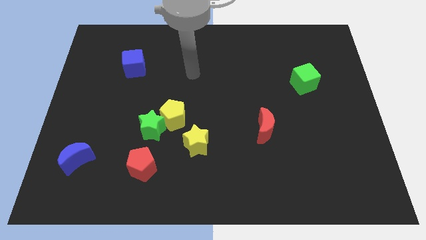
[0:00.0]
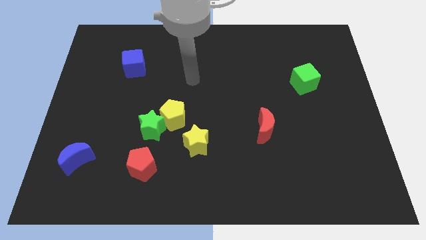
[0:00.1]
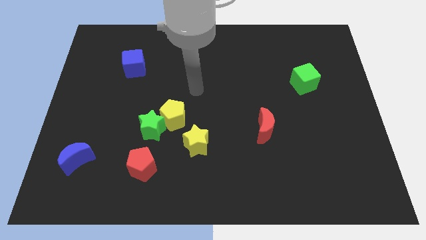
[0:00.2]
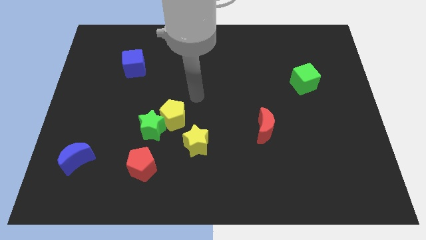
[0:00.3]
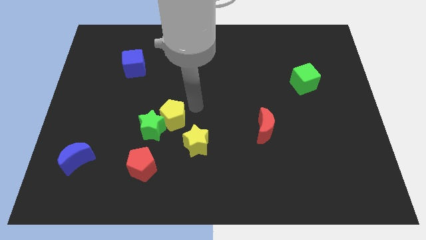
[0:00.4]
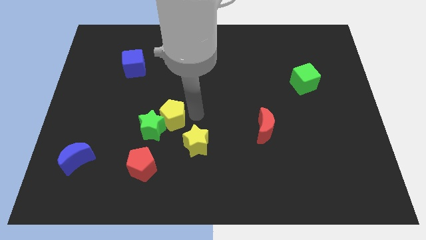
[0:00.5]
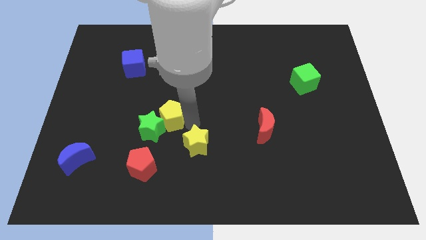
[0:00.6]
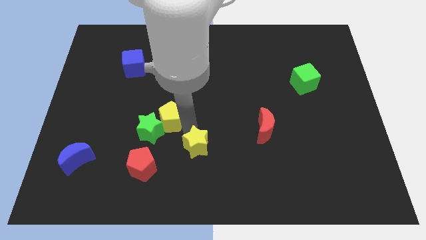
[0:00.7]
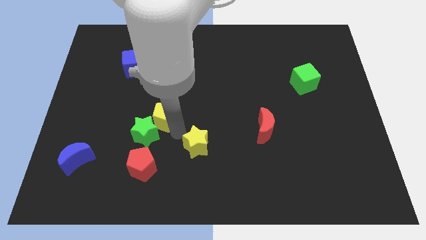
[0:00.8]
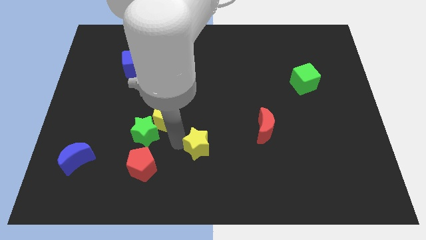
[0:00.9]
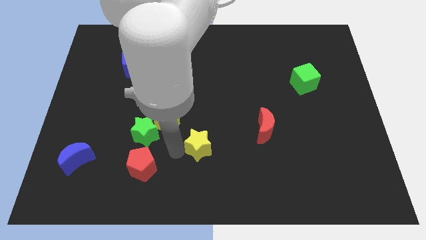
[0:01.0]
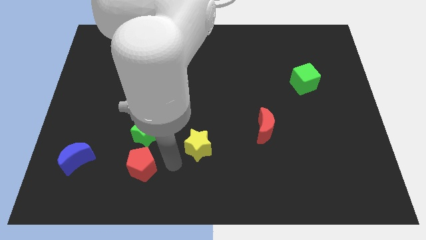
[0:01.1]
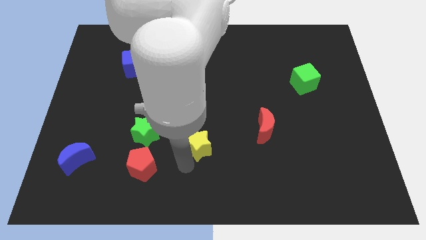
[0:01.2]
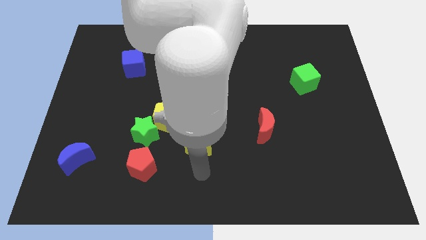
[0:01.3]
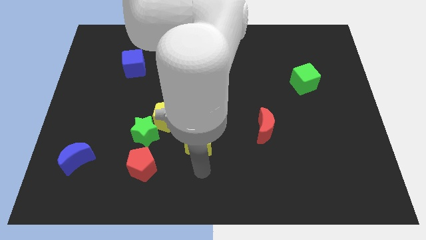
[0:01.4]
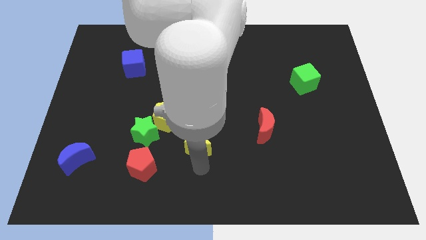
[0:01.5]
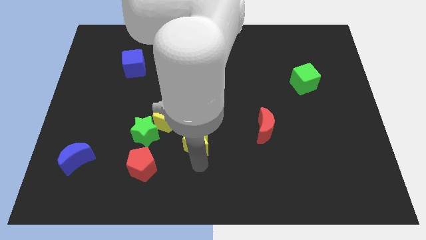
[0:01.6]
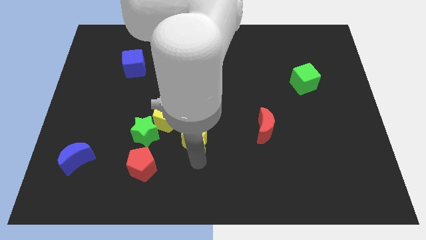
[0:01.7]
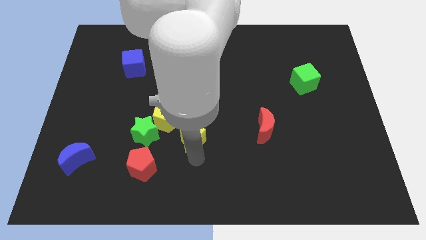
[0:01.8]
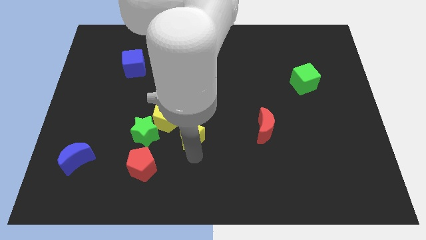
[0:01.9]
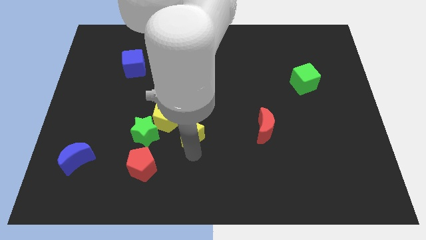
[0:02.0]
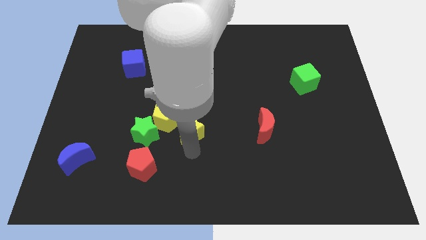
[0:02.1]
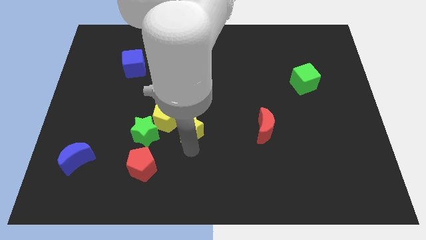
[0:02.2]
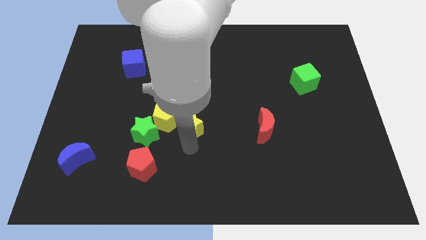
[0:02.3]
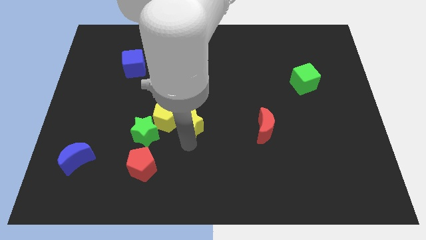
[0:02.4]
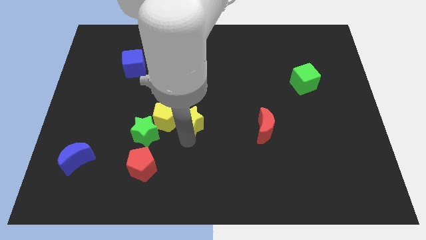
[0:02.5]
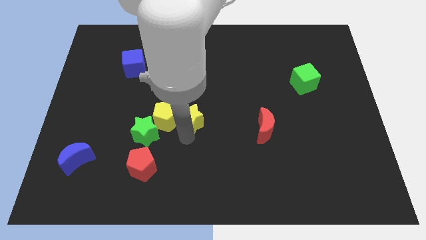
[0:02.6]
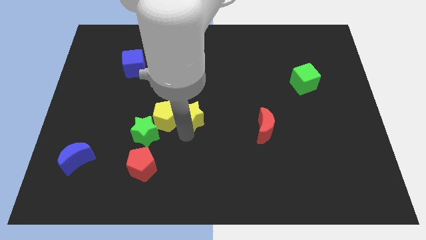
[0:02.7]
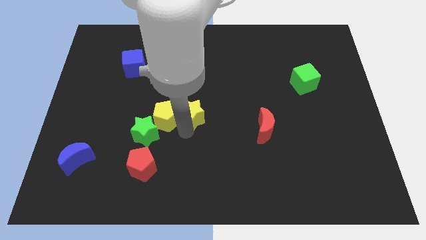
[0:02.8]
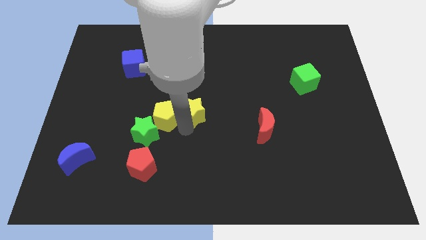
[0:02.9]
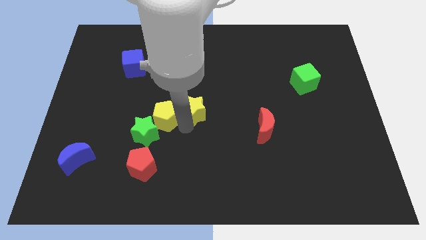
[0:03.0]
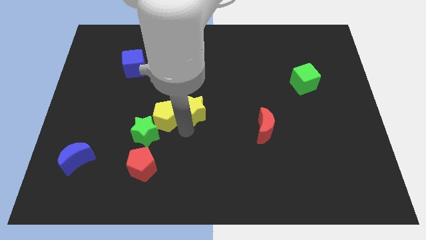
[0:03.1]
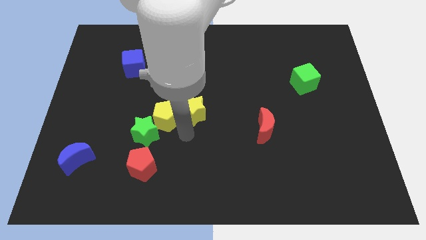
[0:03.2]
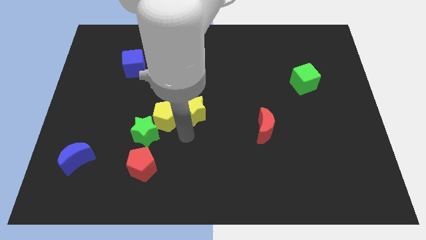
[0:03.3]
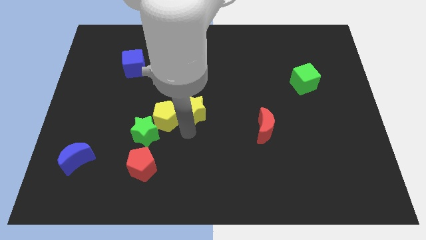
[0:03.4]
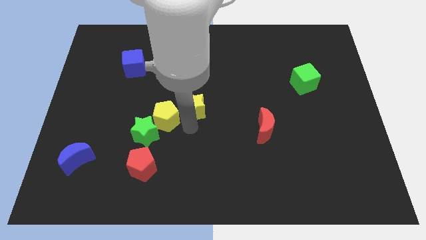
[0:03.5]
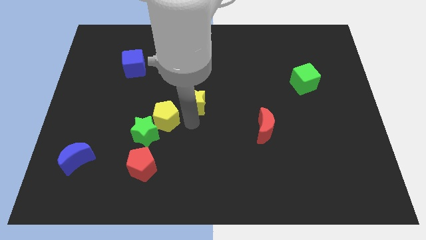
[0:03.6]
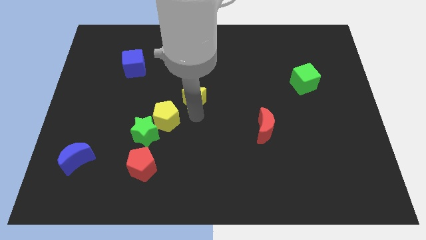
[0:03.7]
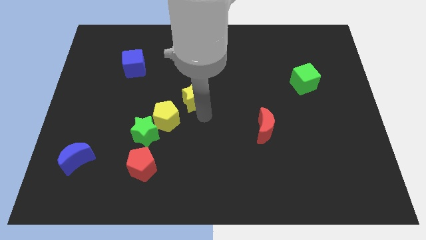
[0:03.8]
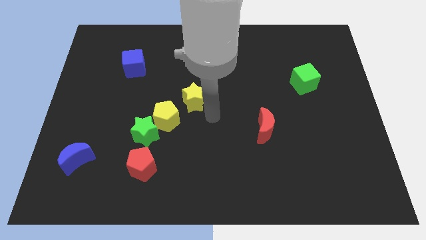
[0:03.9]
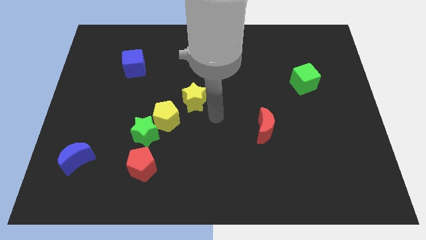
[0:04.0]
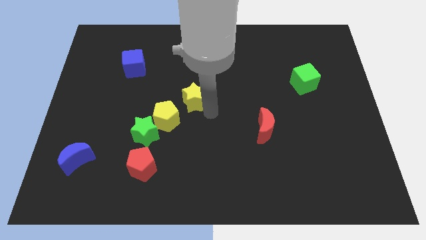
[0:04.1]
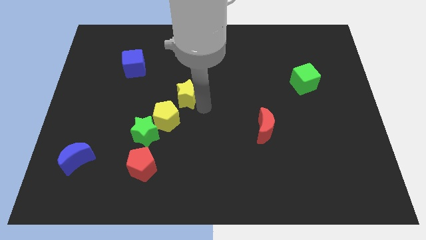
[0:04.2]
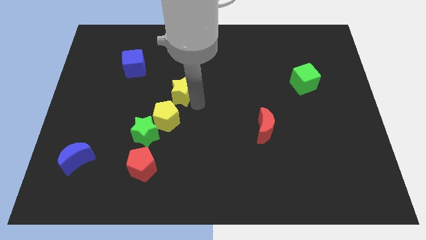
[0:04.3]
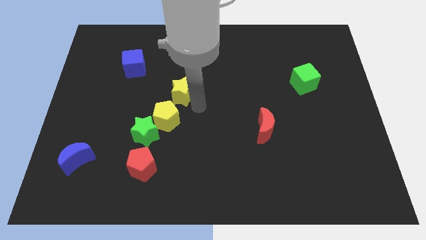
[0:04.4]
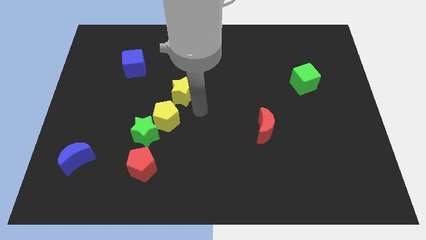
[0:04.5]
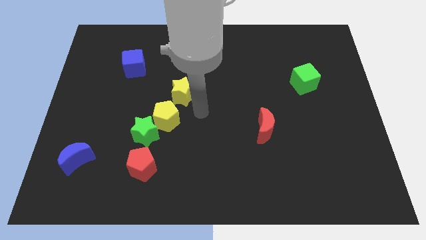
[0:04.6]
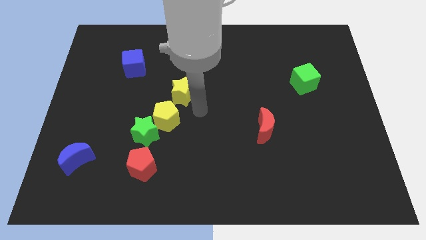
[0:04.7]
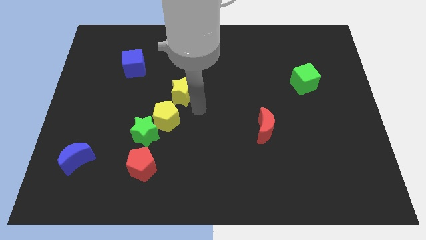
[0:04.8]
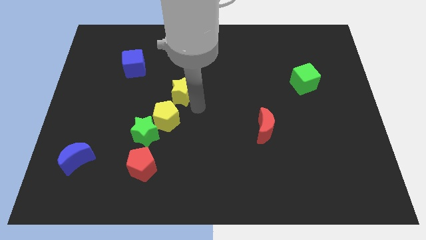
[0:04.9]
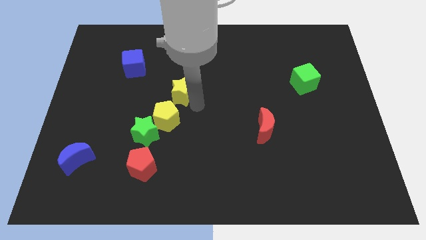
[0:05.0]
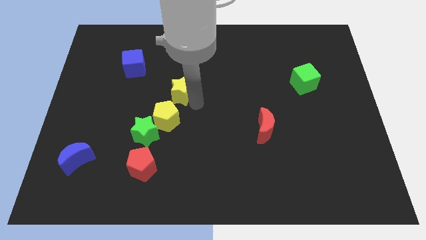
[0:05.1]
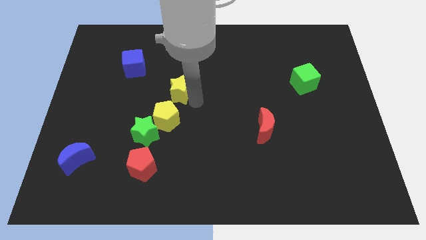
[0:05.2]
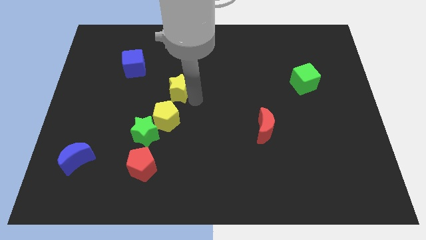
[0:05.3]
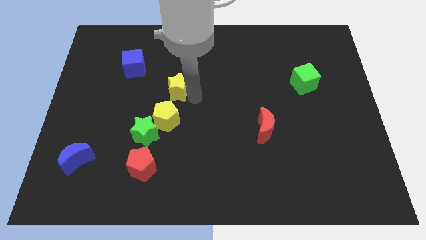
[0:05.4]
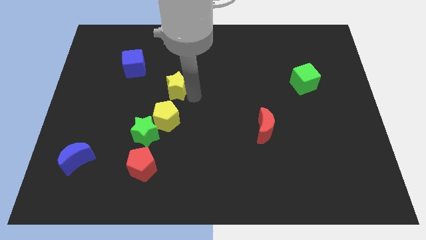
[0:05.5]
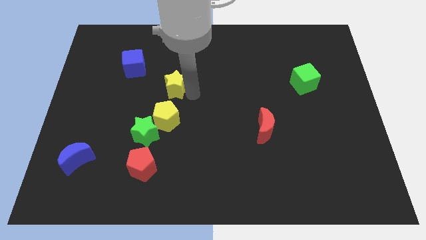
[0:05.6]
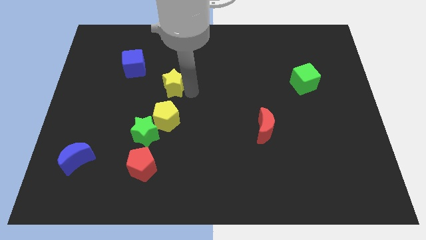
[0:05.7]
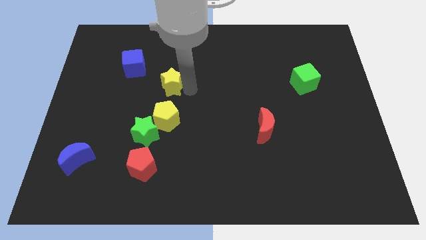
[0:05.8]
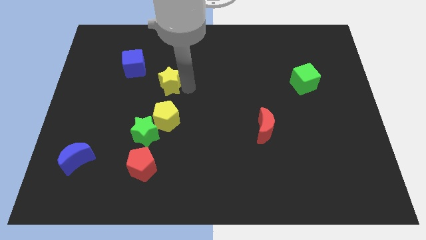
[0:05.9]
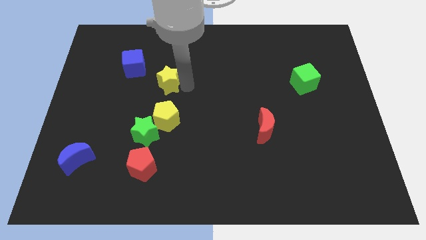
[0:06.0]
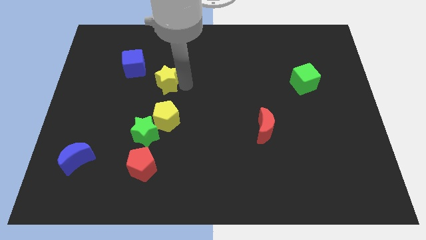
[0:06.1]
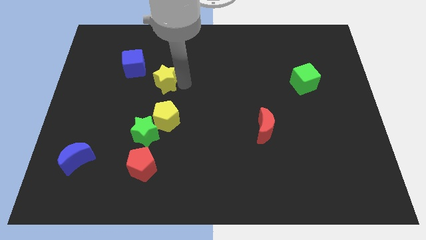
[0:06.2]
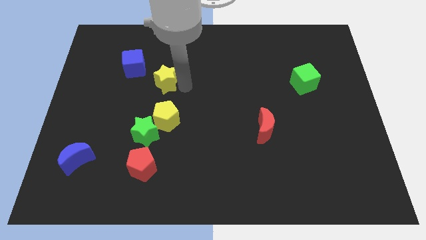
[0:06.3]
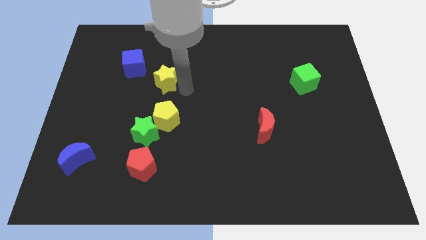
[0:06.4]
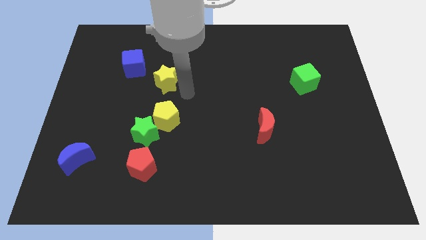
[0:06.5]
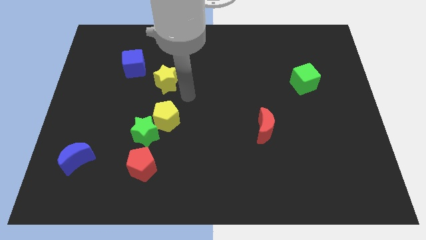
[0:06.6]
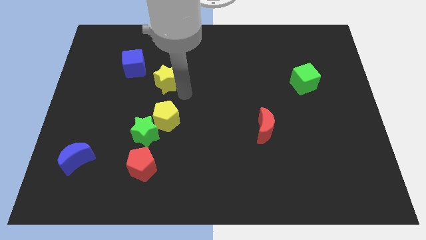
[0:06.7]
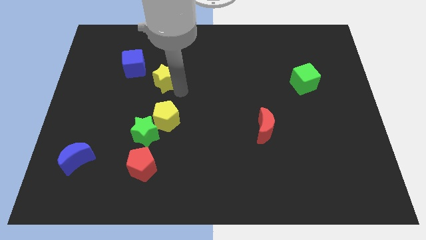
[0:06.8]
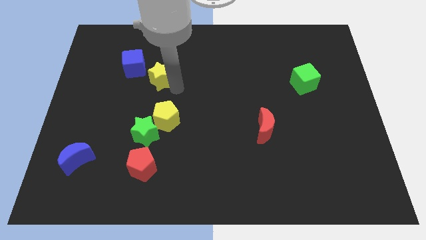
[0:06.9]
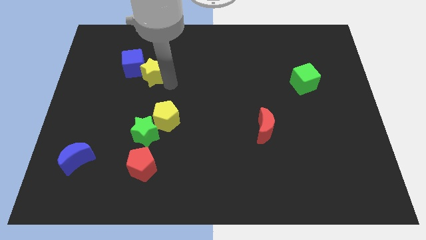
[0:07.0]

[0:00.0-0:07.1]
put the yellow star close to the blue cube

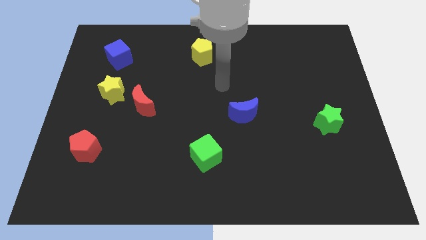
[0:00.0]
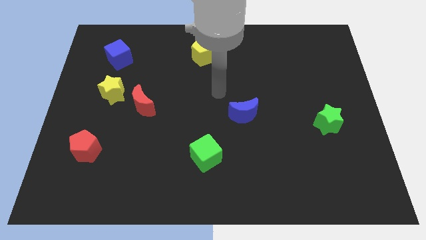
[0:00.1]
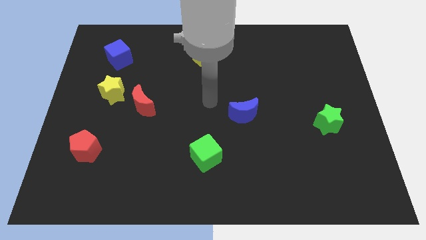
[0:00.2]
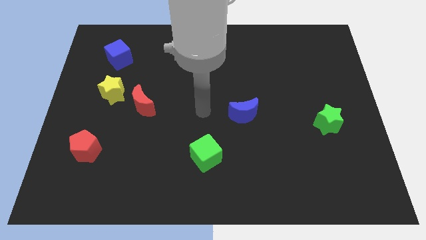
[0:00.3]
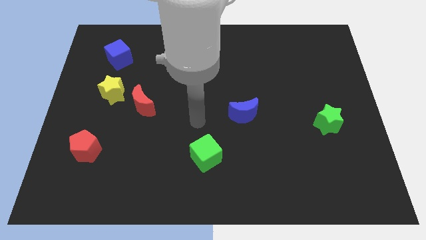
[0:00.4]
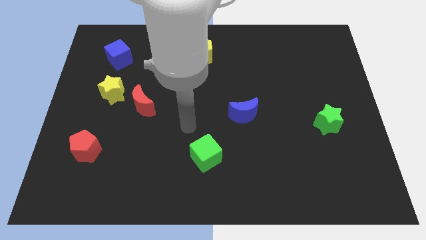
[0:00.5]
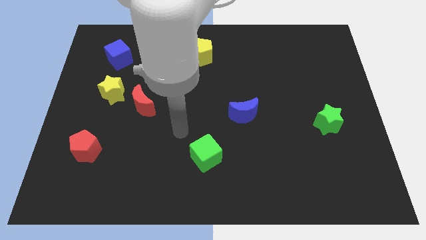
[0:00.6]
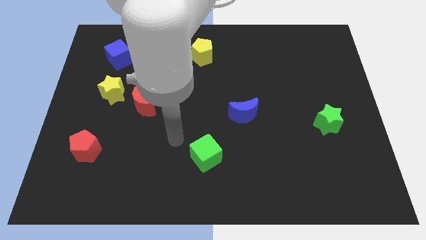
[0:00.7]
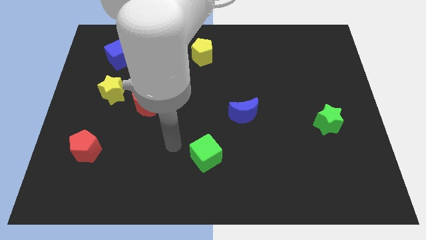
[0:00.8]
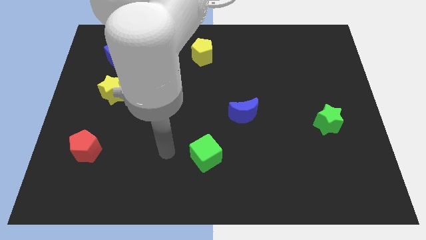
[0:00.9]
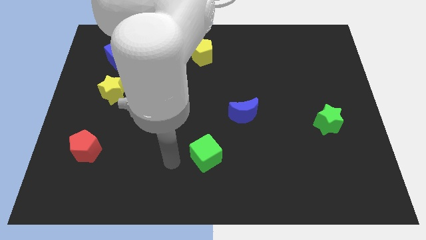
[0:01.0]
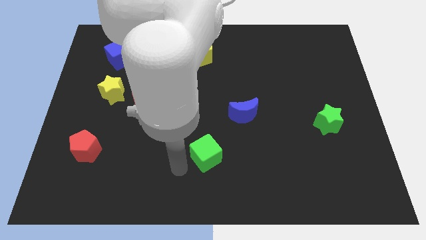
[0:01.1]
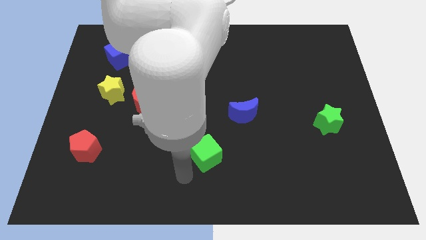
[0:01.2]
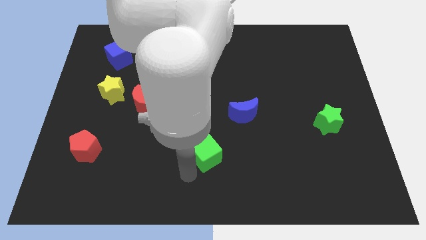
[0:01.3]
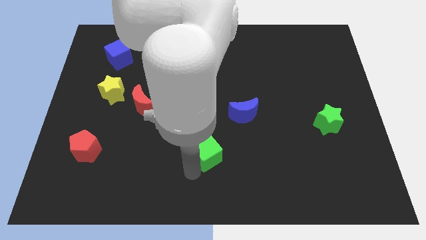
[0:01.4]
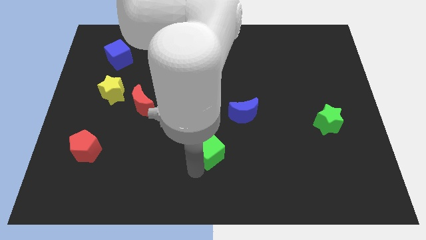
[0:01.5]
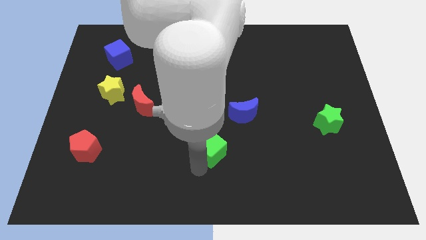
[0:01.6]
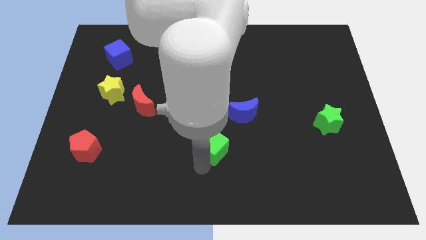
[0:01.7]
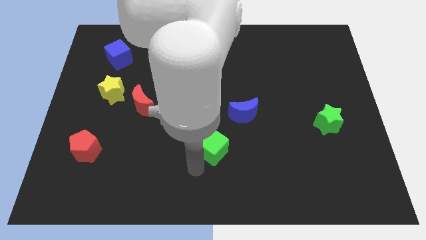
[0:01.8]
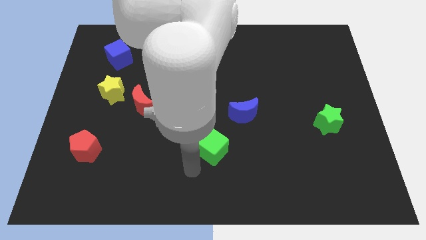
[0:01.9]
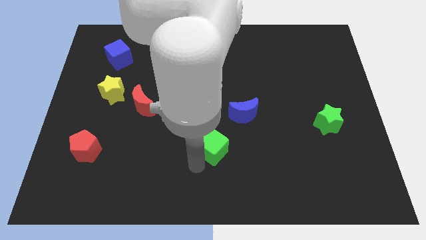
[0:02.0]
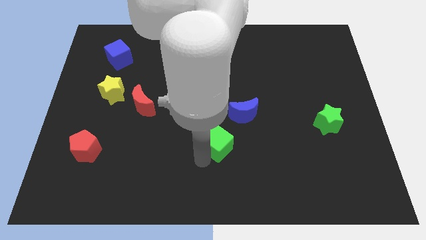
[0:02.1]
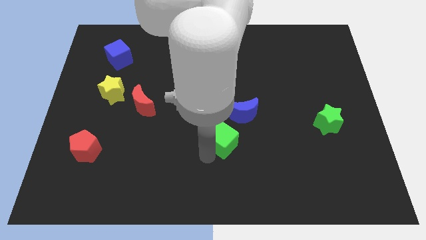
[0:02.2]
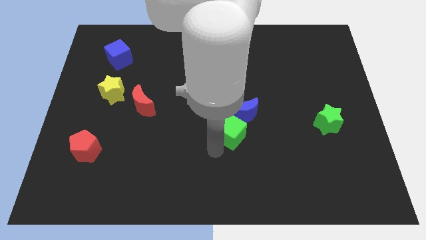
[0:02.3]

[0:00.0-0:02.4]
move the green cube to the blue moon
